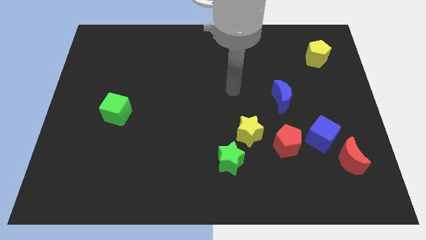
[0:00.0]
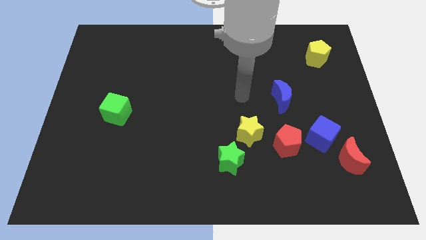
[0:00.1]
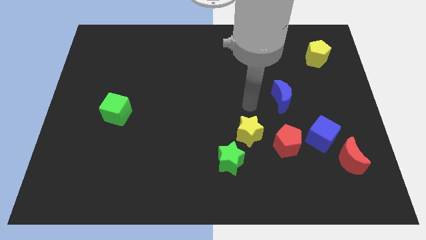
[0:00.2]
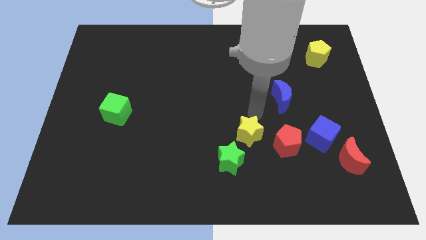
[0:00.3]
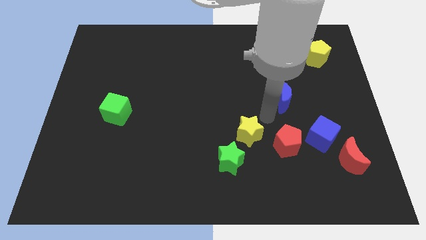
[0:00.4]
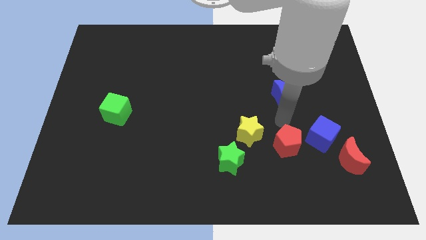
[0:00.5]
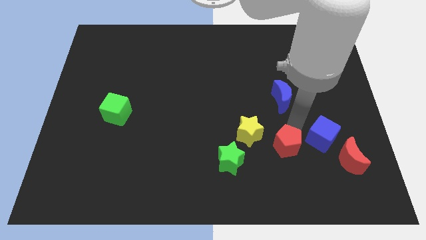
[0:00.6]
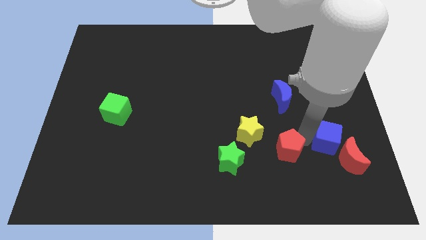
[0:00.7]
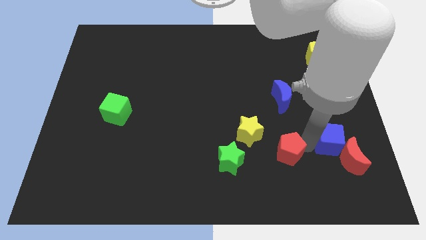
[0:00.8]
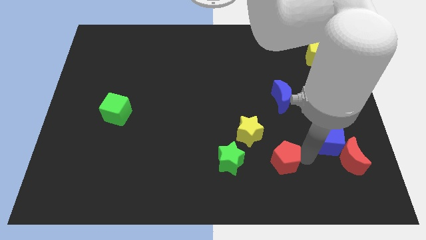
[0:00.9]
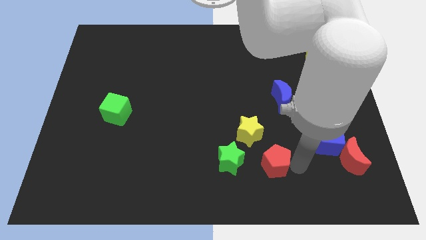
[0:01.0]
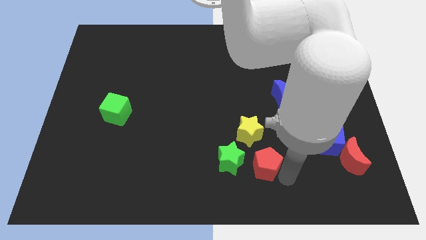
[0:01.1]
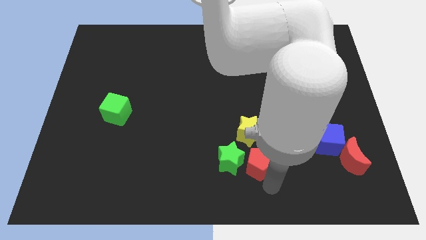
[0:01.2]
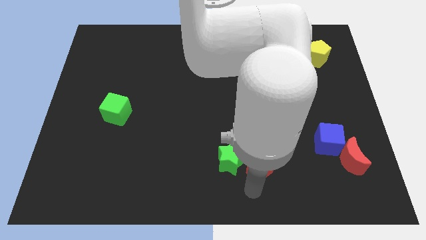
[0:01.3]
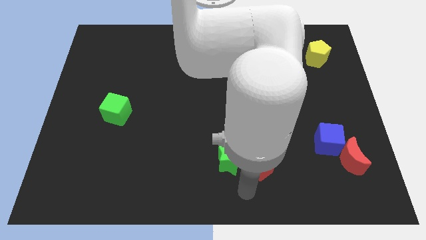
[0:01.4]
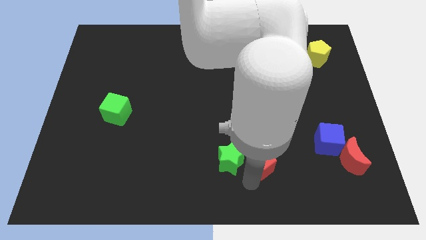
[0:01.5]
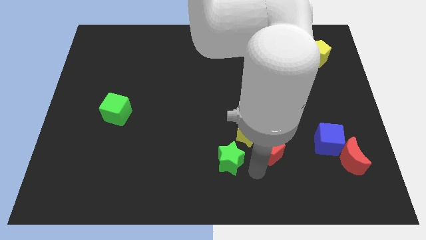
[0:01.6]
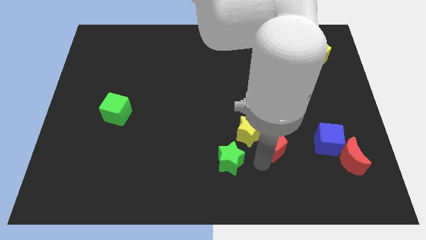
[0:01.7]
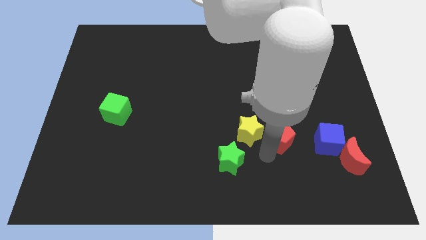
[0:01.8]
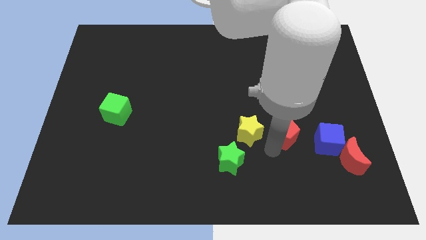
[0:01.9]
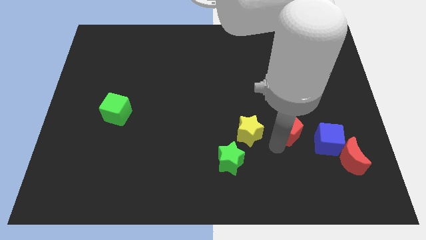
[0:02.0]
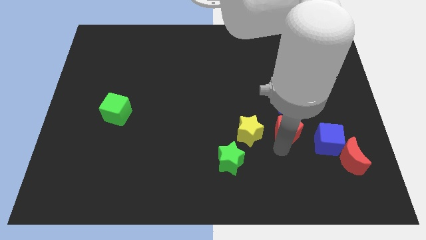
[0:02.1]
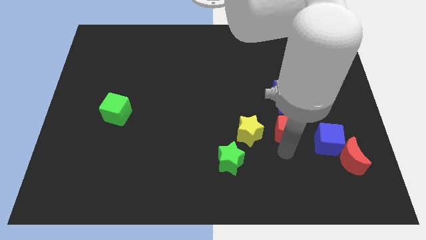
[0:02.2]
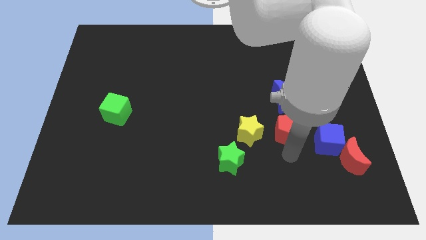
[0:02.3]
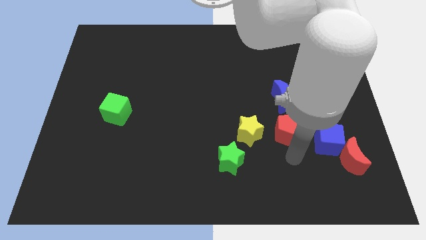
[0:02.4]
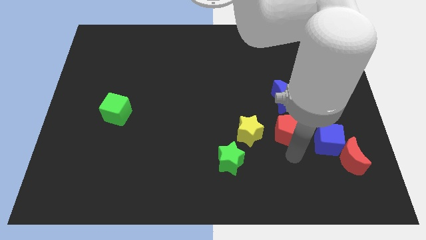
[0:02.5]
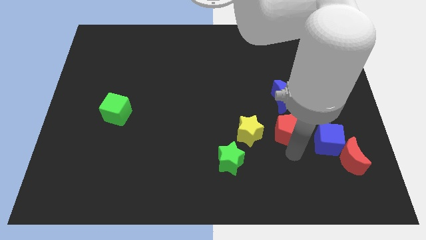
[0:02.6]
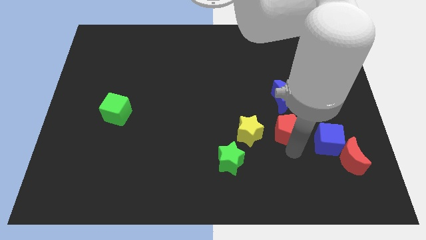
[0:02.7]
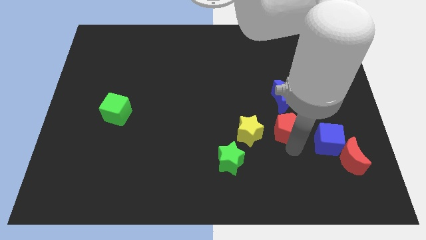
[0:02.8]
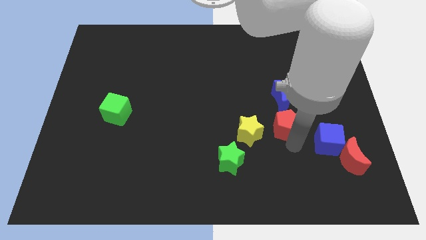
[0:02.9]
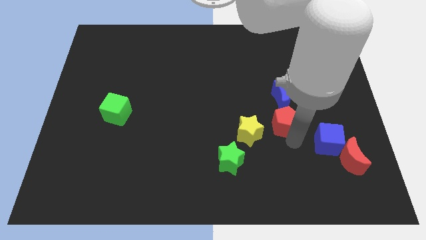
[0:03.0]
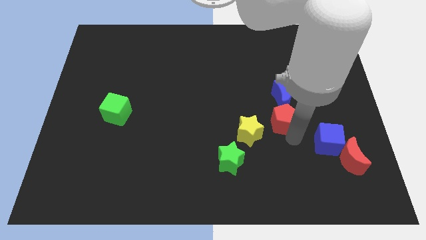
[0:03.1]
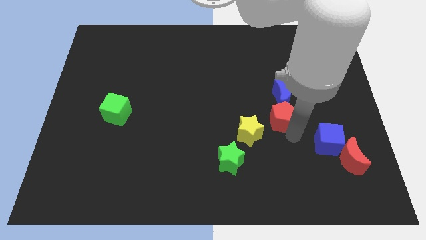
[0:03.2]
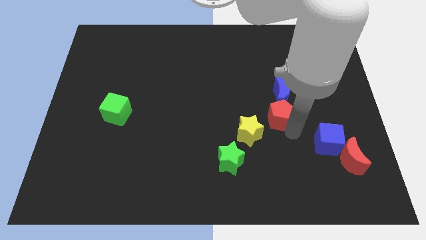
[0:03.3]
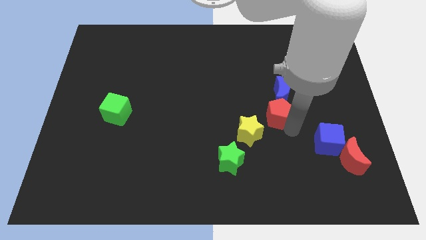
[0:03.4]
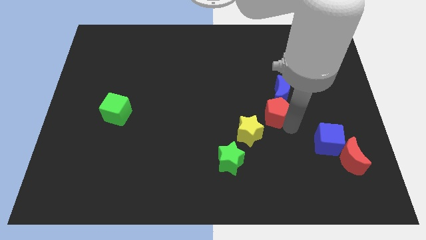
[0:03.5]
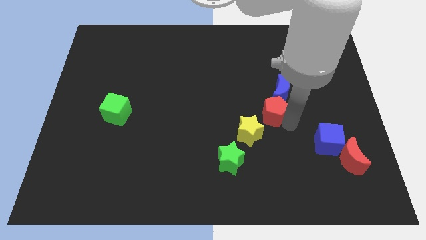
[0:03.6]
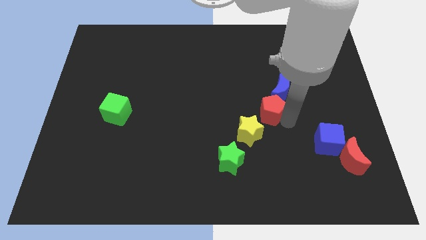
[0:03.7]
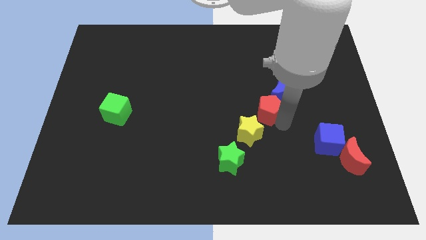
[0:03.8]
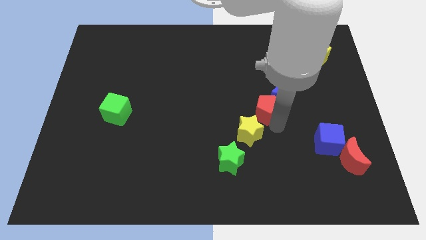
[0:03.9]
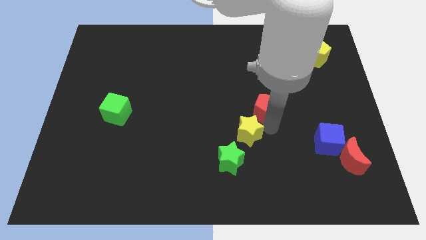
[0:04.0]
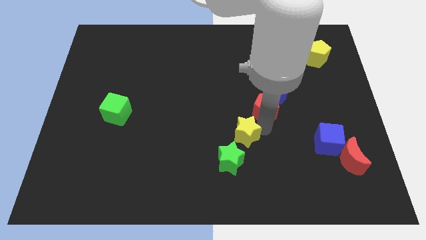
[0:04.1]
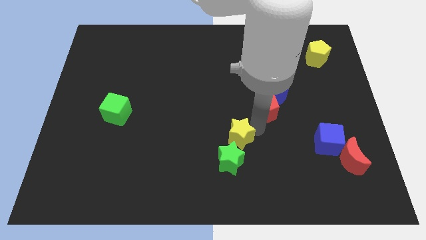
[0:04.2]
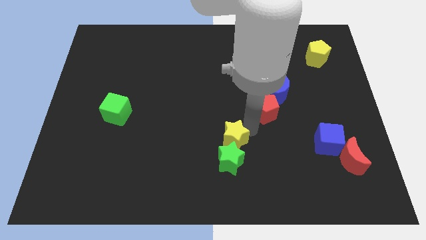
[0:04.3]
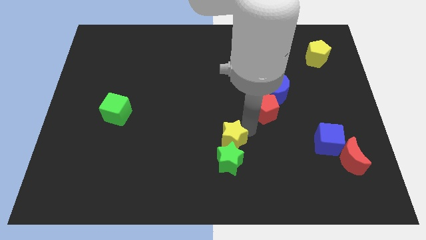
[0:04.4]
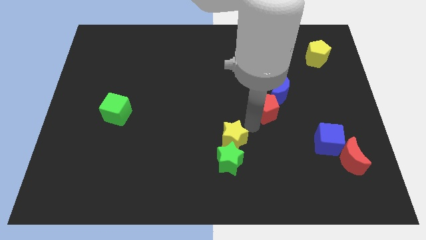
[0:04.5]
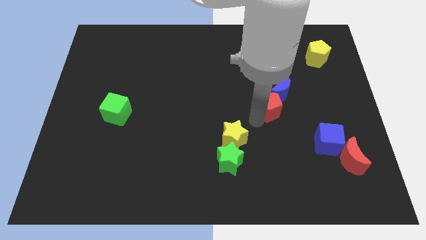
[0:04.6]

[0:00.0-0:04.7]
slide the red pentagon next to the blue moon

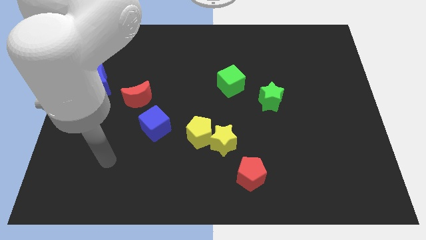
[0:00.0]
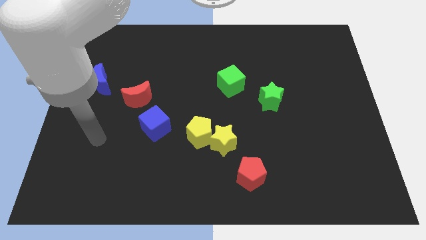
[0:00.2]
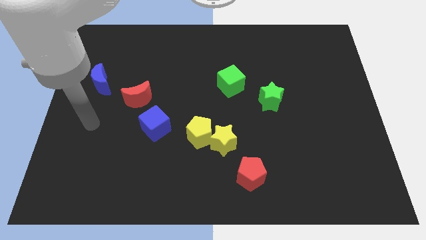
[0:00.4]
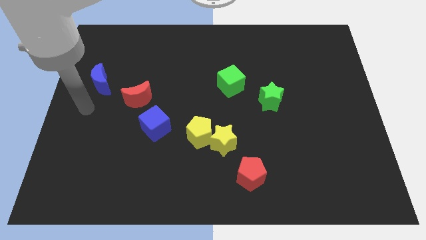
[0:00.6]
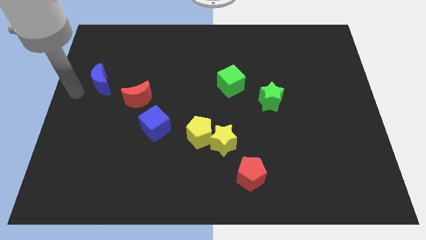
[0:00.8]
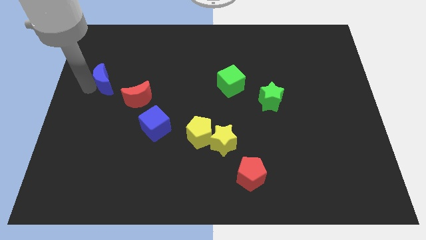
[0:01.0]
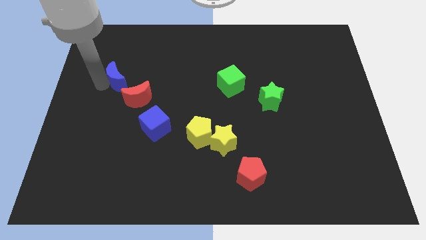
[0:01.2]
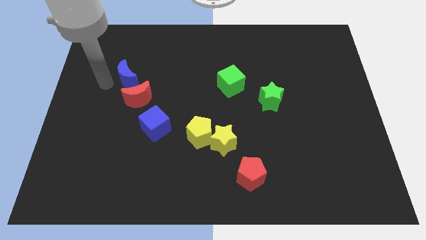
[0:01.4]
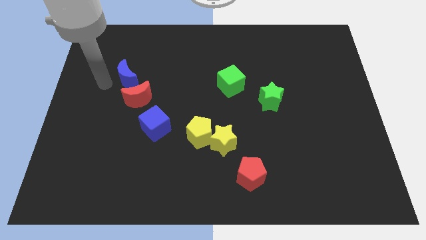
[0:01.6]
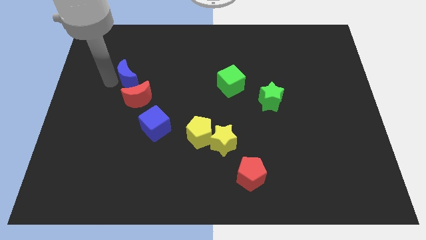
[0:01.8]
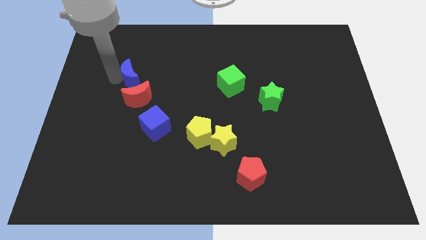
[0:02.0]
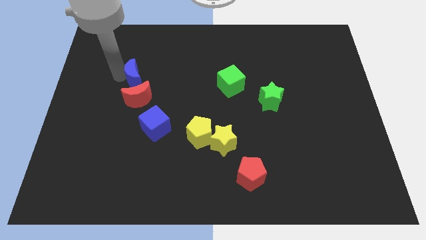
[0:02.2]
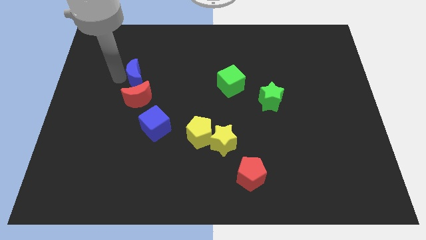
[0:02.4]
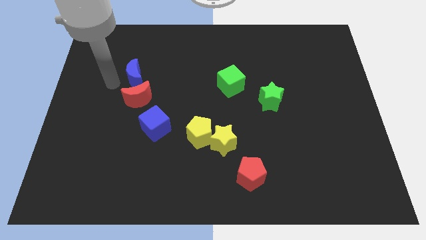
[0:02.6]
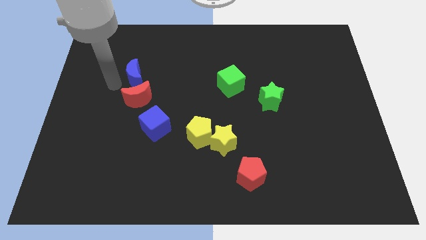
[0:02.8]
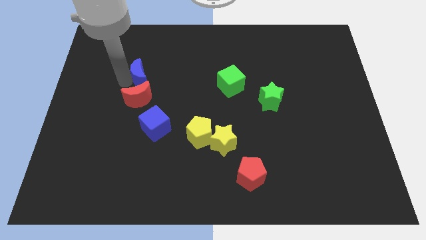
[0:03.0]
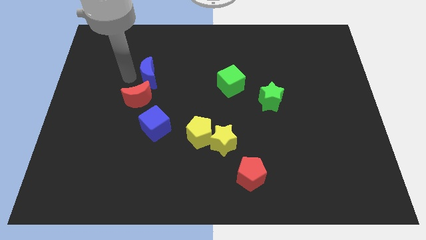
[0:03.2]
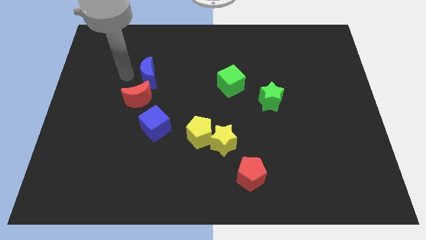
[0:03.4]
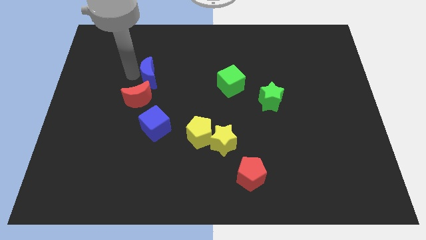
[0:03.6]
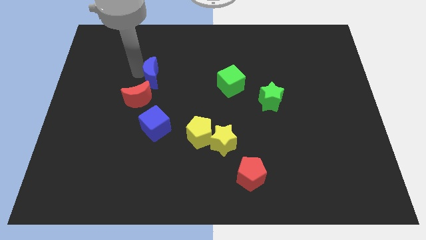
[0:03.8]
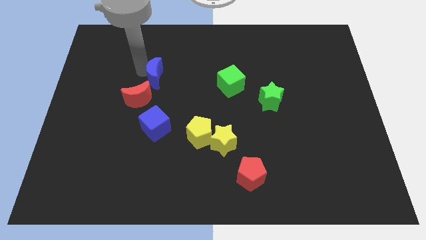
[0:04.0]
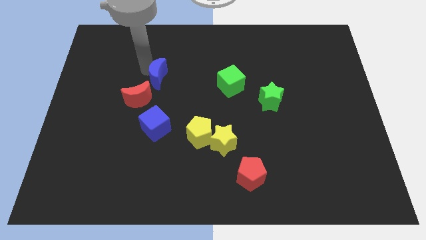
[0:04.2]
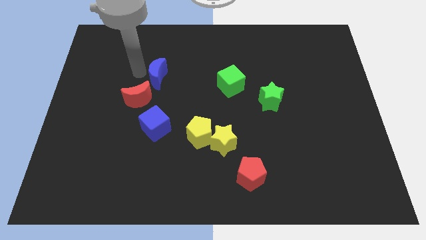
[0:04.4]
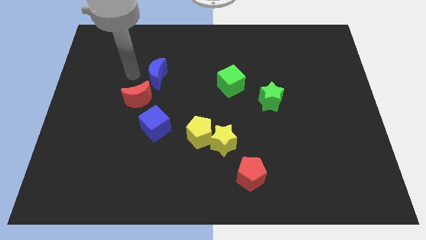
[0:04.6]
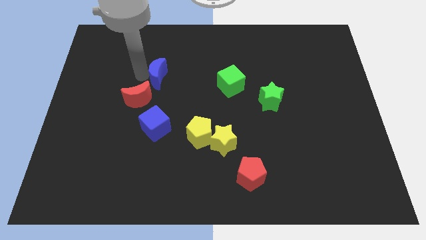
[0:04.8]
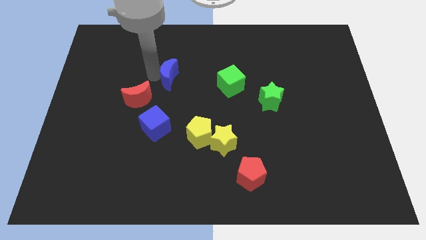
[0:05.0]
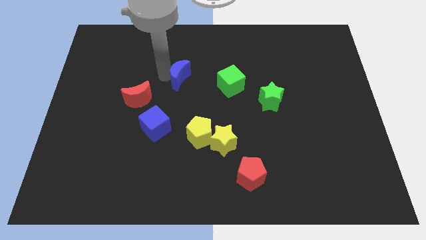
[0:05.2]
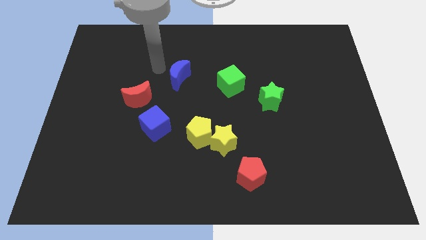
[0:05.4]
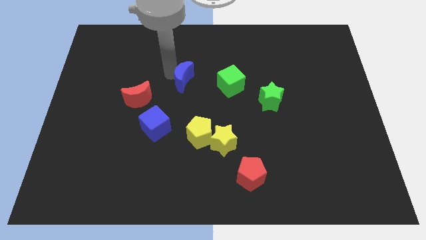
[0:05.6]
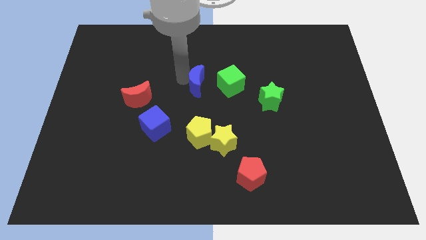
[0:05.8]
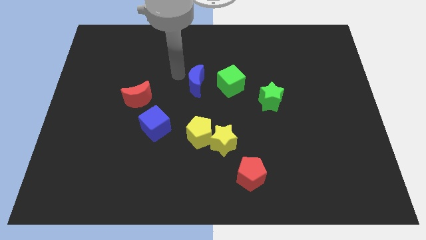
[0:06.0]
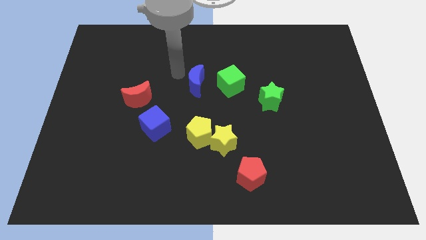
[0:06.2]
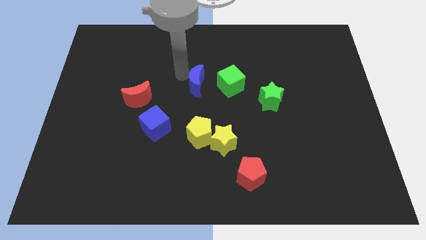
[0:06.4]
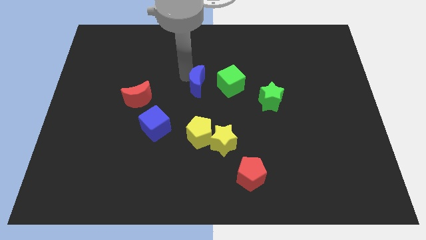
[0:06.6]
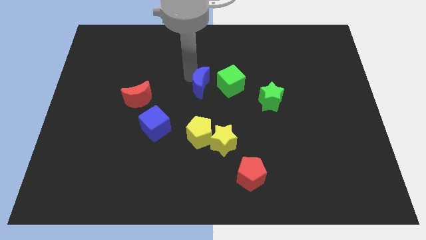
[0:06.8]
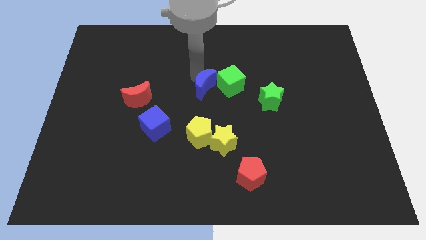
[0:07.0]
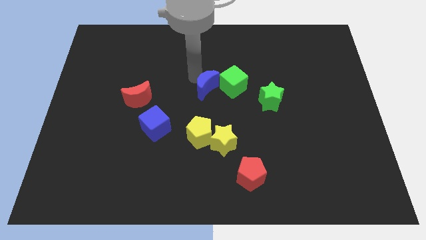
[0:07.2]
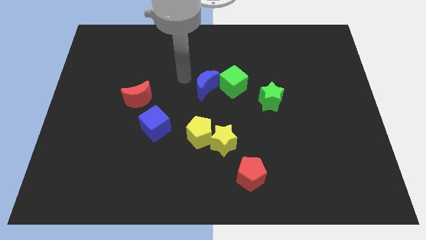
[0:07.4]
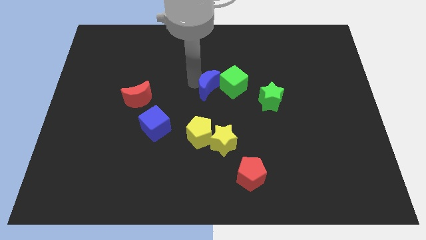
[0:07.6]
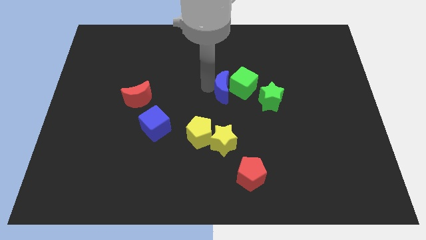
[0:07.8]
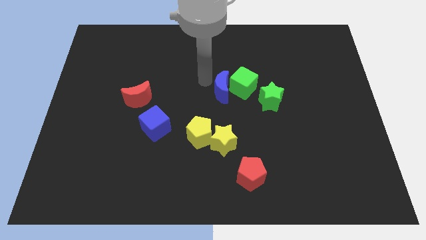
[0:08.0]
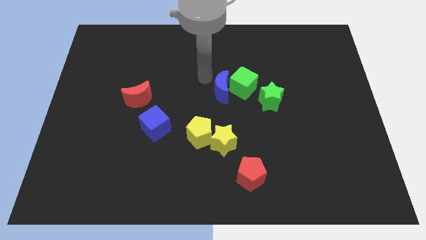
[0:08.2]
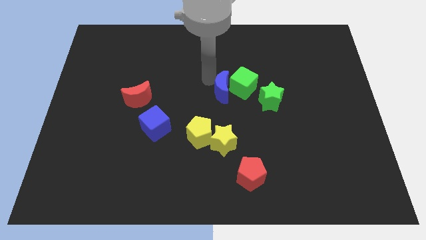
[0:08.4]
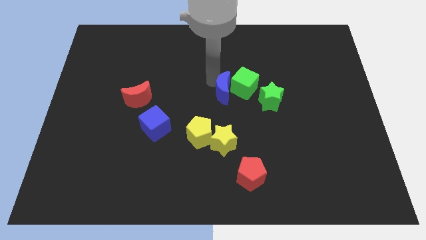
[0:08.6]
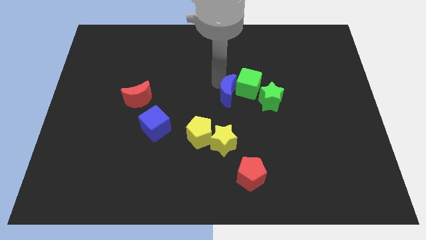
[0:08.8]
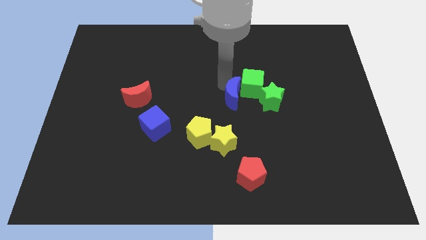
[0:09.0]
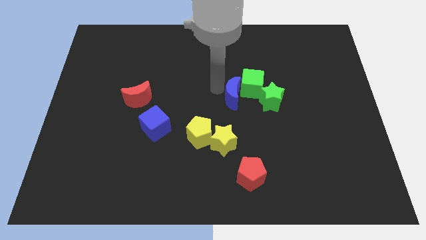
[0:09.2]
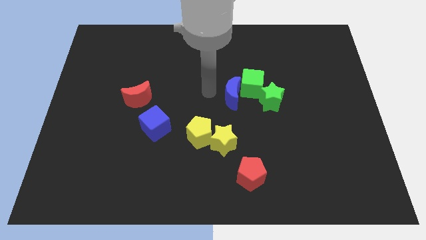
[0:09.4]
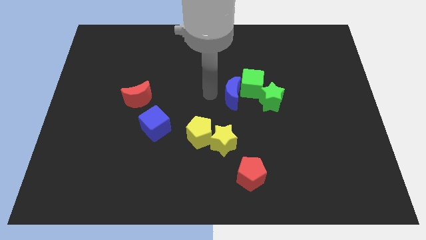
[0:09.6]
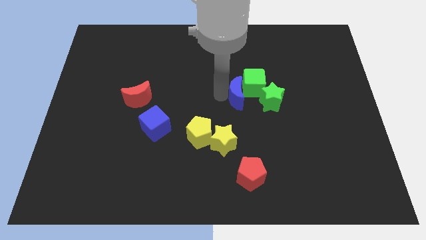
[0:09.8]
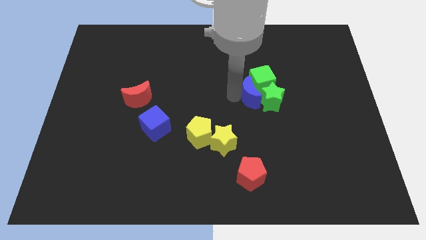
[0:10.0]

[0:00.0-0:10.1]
slide the blue moon close to the green star
